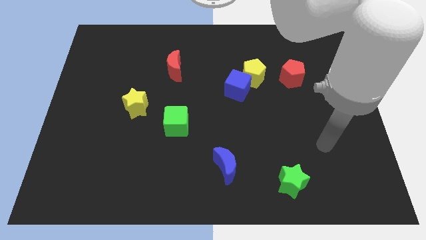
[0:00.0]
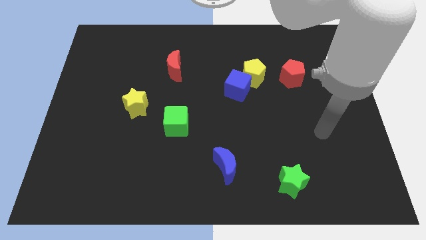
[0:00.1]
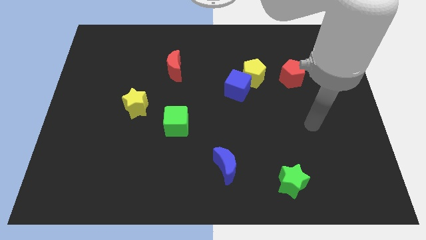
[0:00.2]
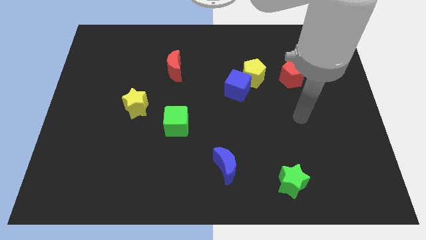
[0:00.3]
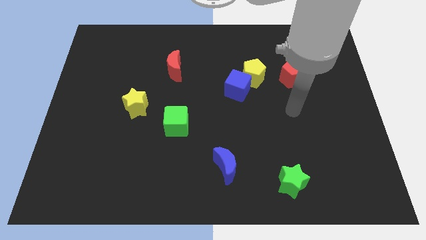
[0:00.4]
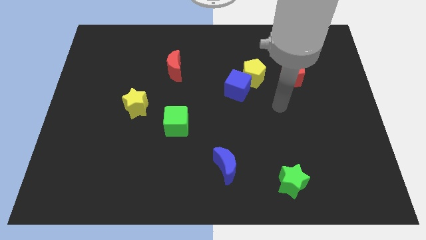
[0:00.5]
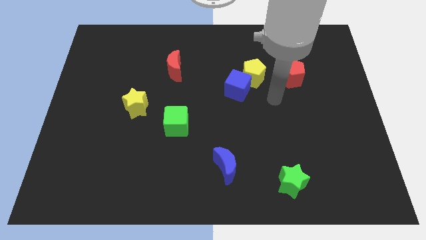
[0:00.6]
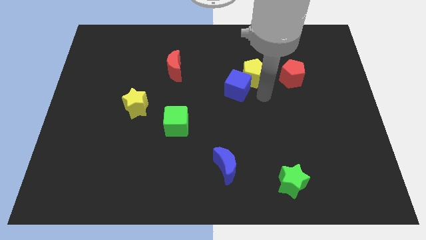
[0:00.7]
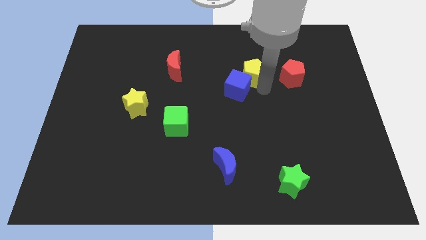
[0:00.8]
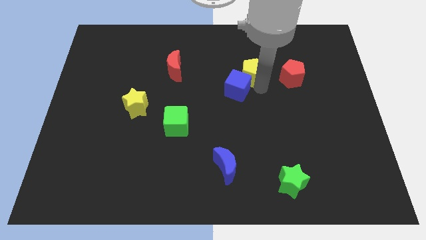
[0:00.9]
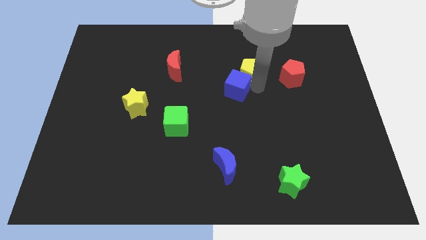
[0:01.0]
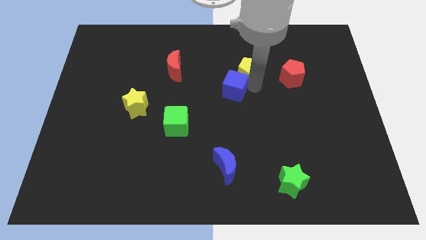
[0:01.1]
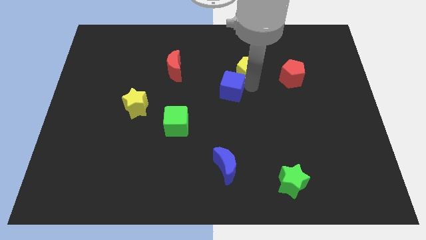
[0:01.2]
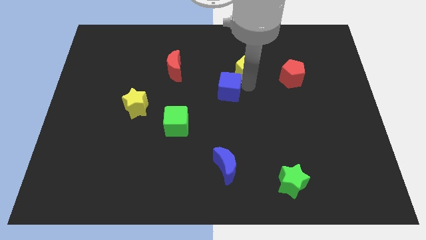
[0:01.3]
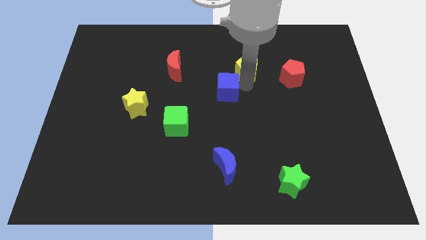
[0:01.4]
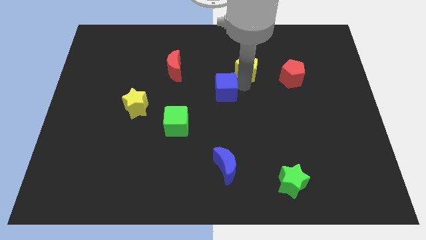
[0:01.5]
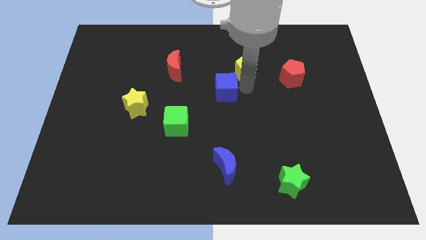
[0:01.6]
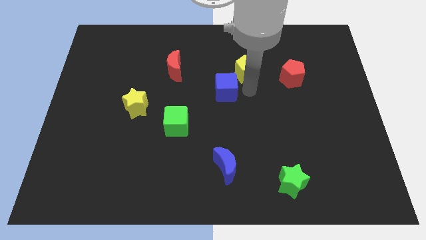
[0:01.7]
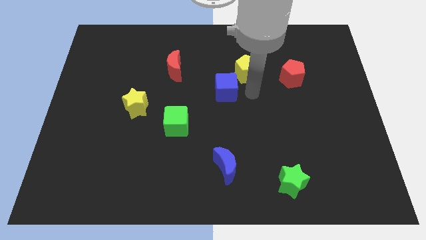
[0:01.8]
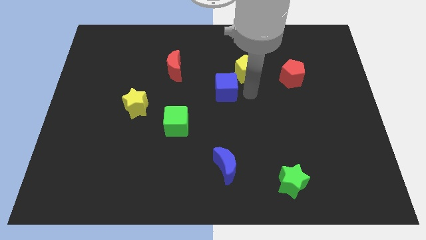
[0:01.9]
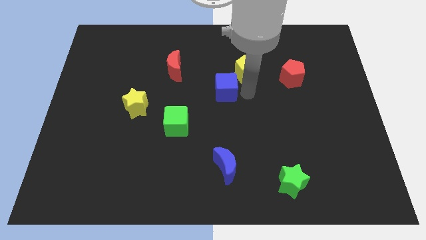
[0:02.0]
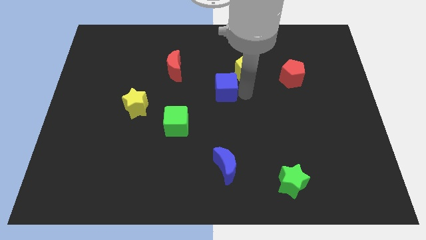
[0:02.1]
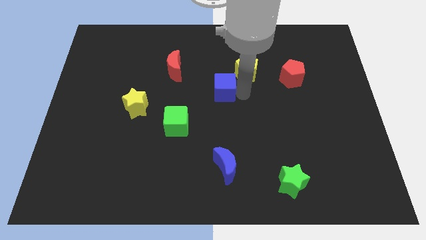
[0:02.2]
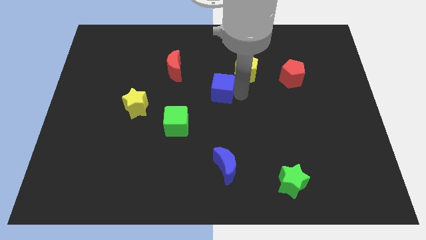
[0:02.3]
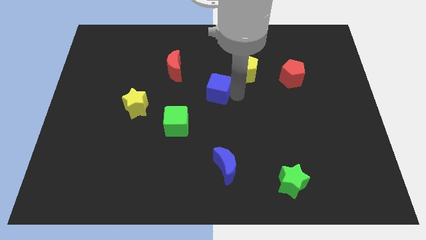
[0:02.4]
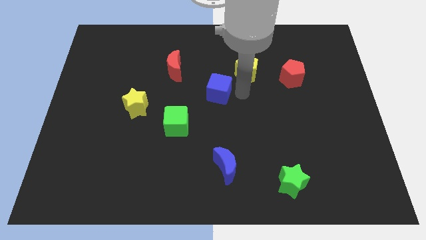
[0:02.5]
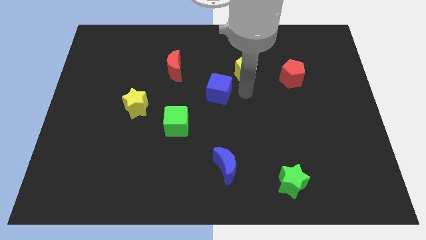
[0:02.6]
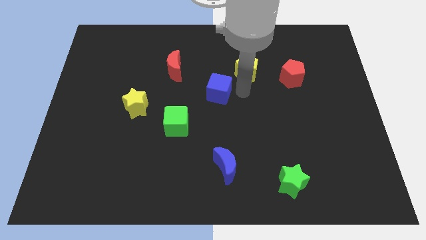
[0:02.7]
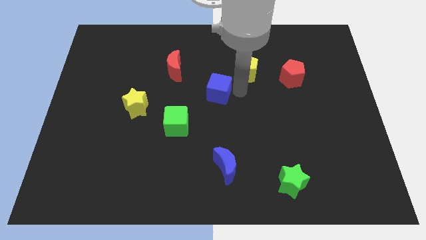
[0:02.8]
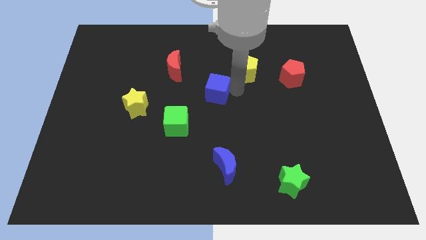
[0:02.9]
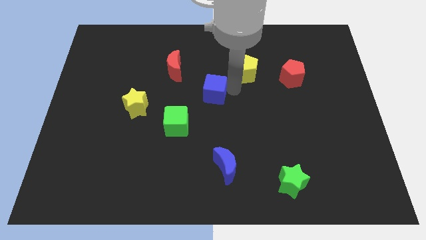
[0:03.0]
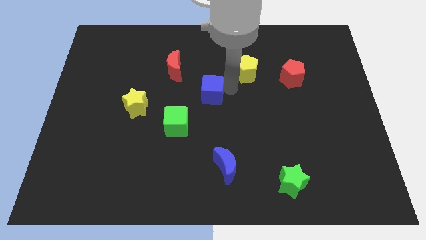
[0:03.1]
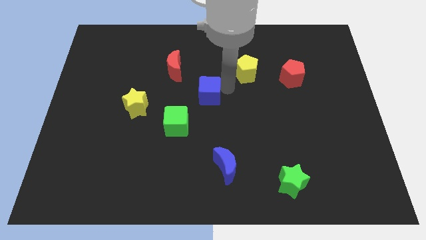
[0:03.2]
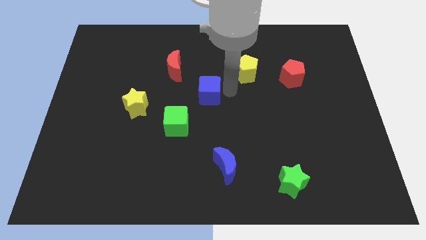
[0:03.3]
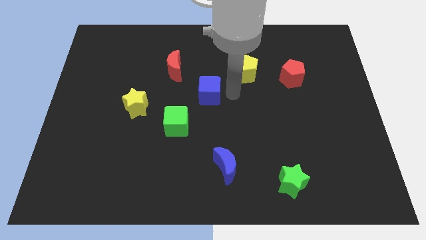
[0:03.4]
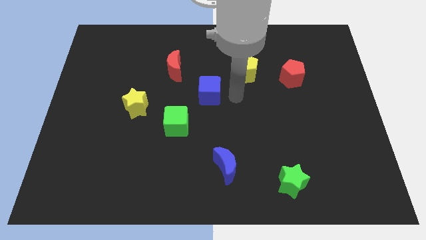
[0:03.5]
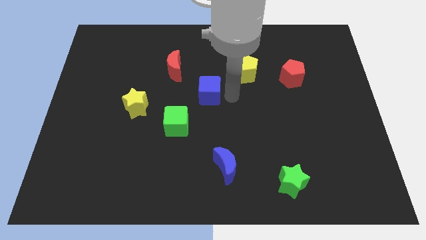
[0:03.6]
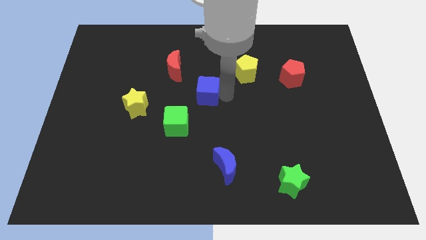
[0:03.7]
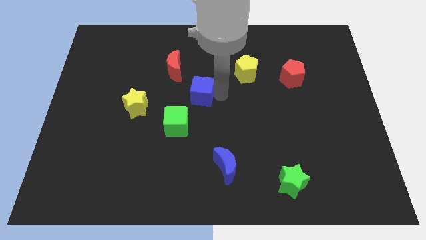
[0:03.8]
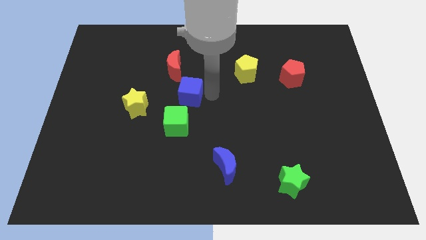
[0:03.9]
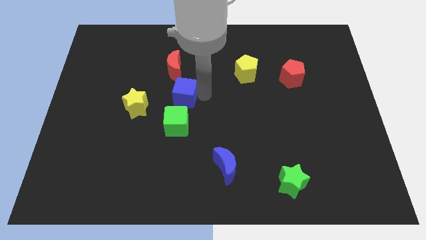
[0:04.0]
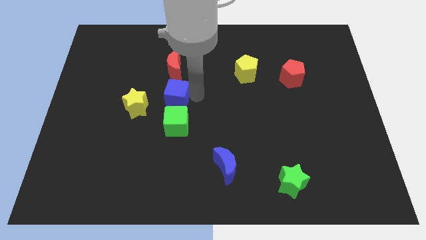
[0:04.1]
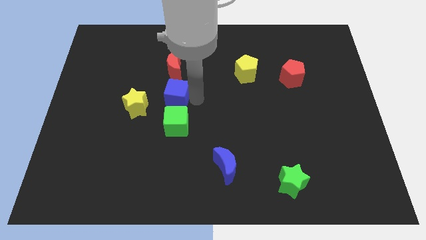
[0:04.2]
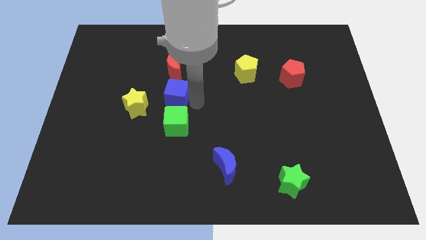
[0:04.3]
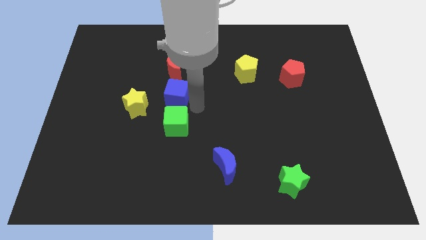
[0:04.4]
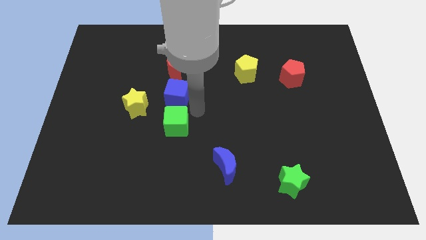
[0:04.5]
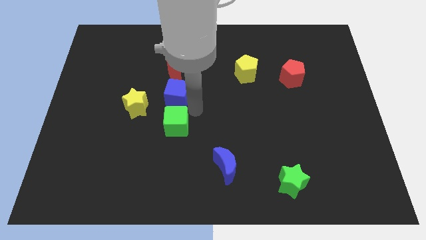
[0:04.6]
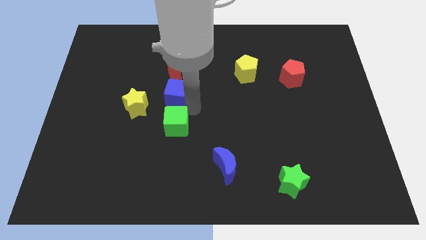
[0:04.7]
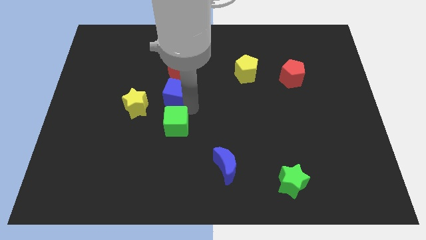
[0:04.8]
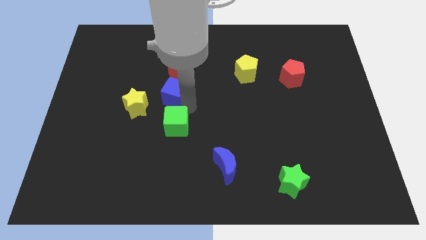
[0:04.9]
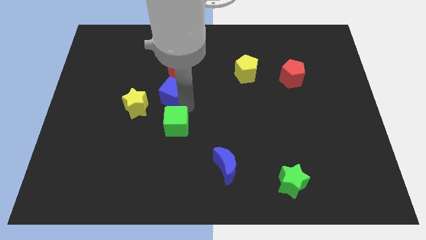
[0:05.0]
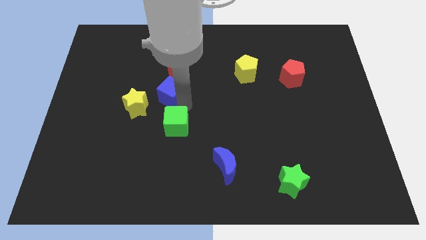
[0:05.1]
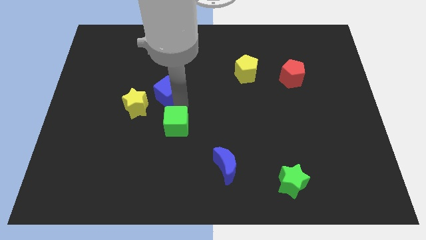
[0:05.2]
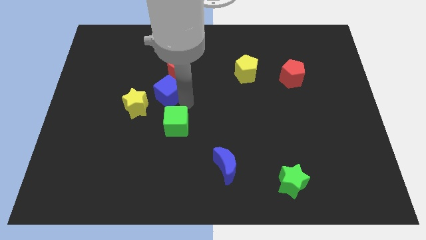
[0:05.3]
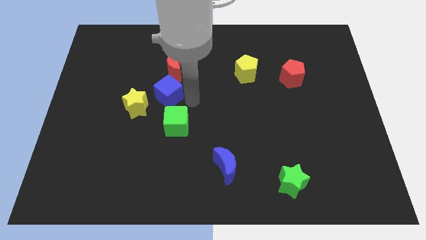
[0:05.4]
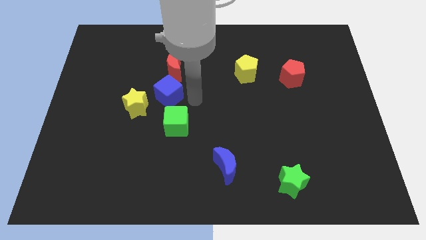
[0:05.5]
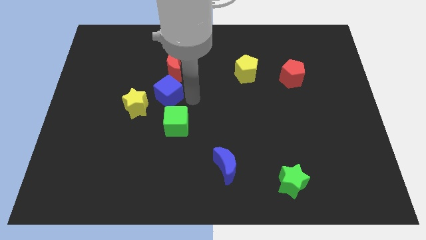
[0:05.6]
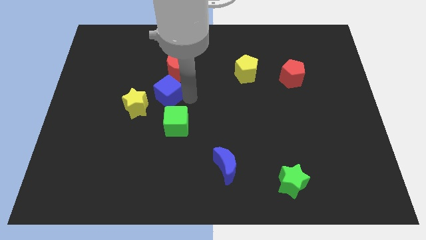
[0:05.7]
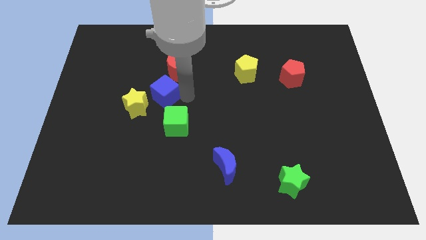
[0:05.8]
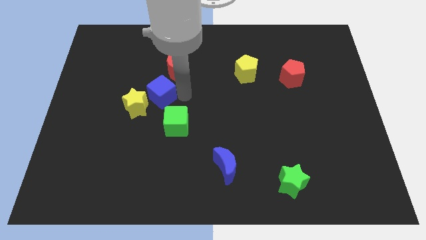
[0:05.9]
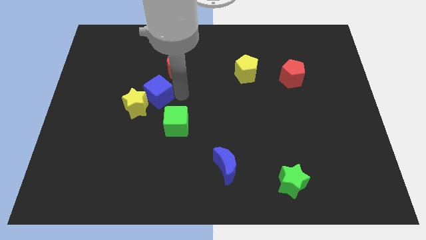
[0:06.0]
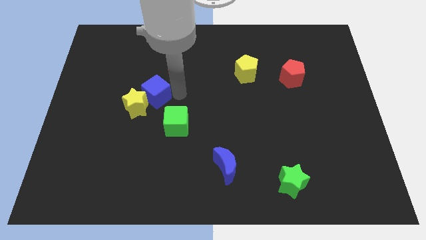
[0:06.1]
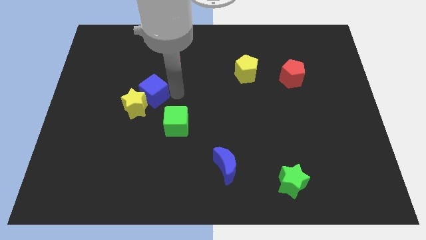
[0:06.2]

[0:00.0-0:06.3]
push the blue cube left

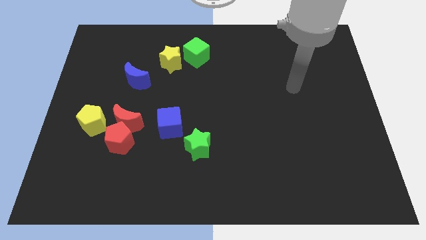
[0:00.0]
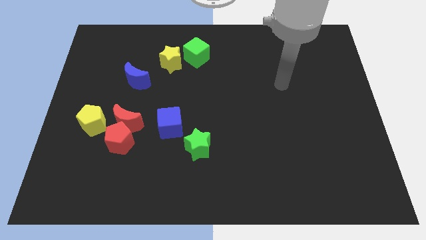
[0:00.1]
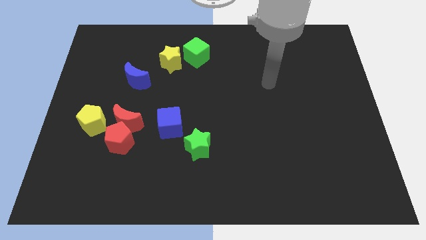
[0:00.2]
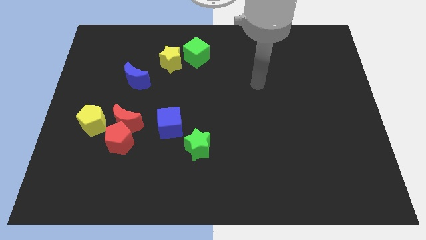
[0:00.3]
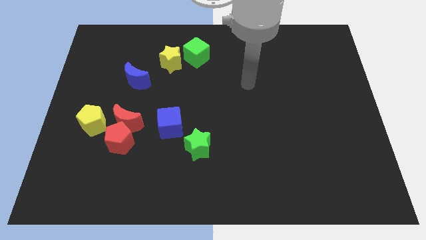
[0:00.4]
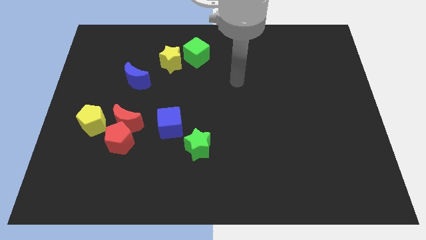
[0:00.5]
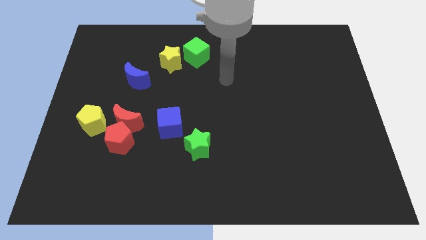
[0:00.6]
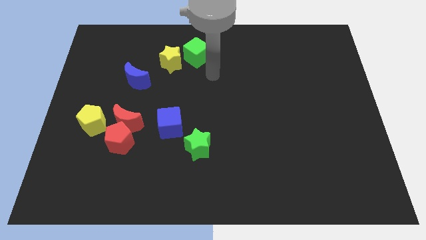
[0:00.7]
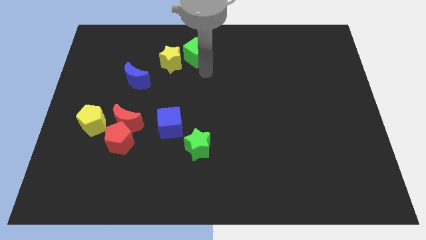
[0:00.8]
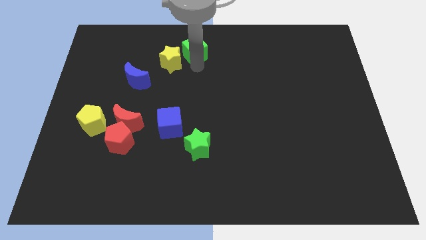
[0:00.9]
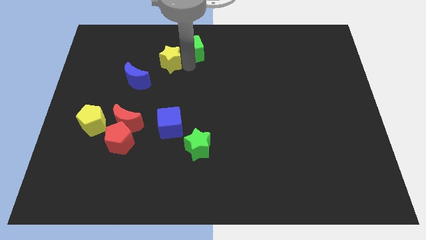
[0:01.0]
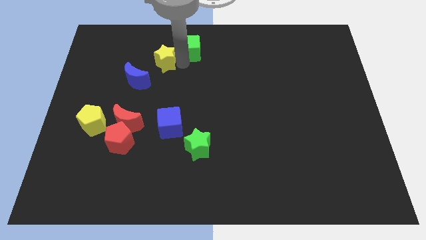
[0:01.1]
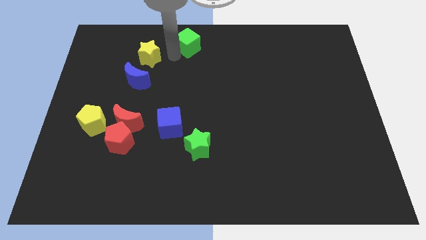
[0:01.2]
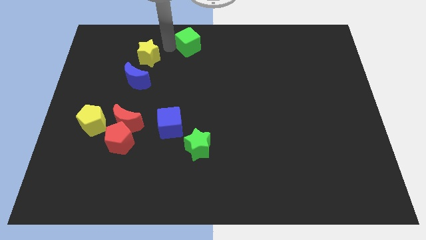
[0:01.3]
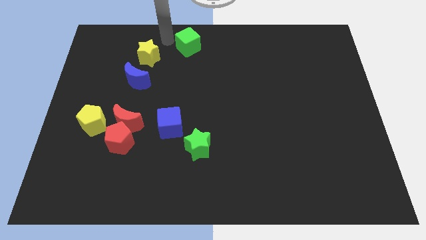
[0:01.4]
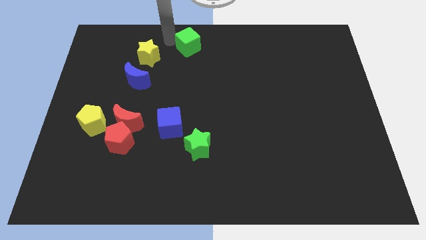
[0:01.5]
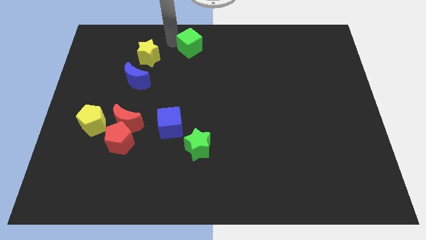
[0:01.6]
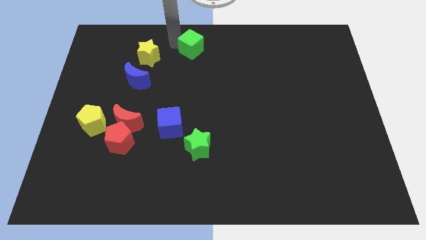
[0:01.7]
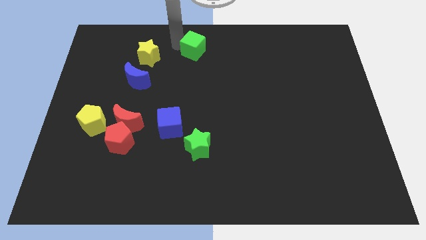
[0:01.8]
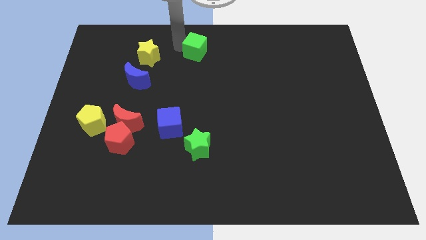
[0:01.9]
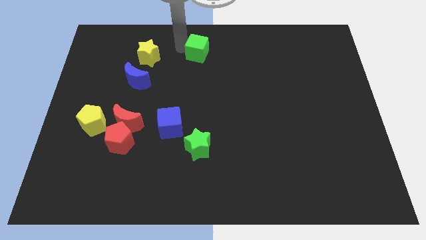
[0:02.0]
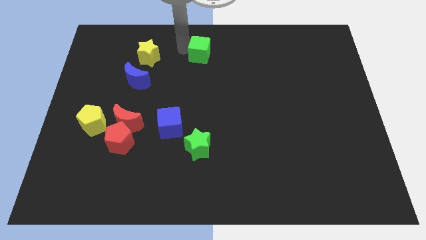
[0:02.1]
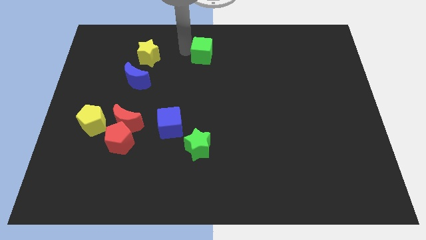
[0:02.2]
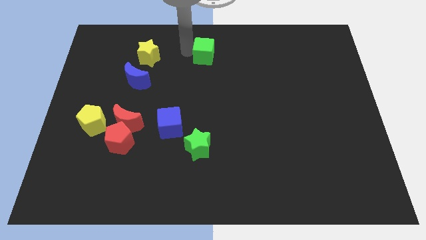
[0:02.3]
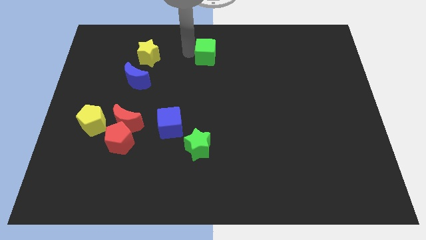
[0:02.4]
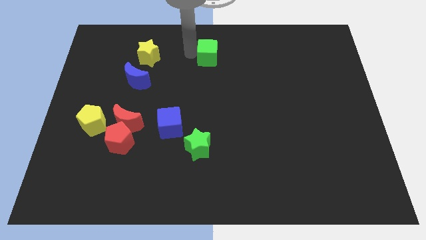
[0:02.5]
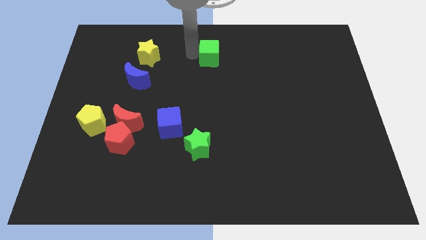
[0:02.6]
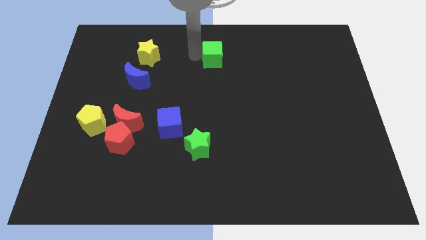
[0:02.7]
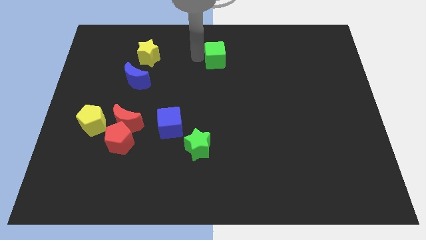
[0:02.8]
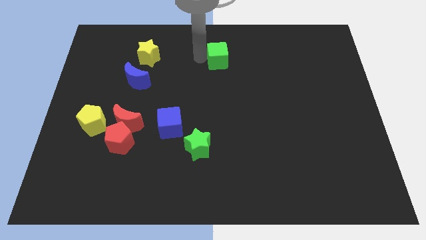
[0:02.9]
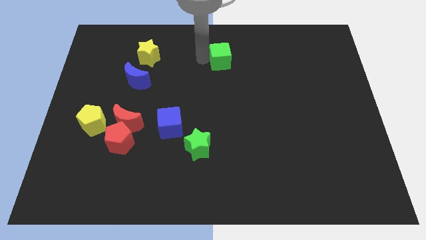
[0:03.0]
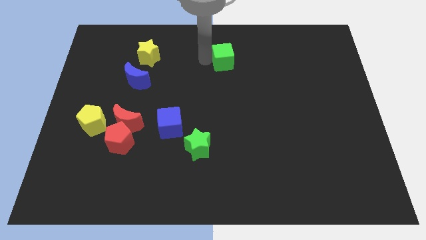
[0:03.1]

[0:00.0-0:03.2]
move the green cube a bit right
